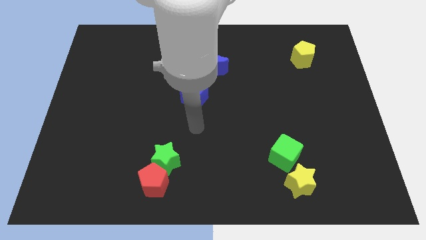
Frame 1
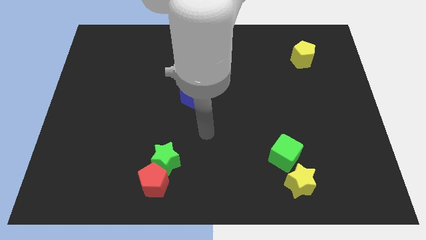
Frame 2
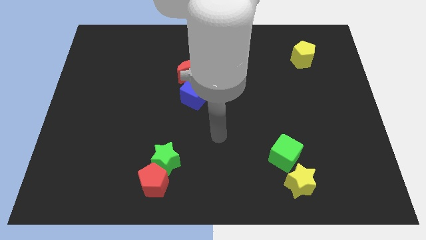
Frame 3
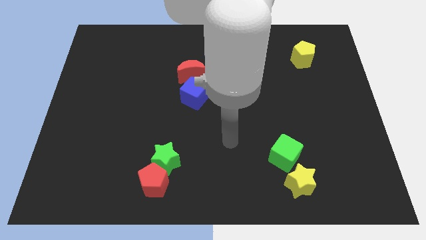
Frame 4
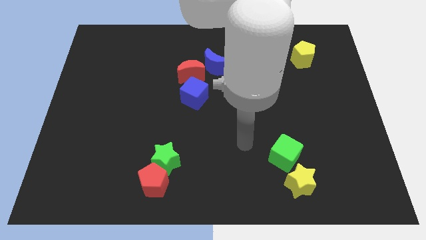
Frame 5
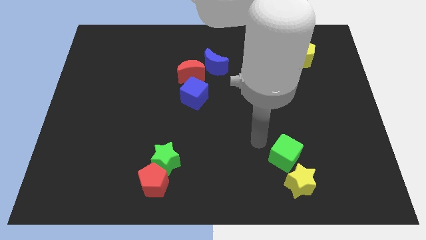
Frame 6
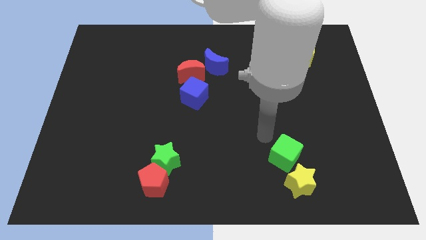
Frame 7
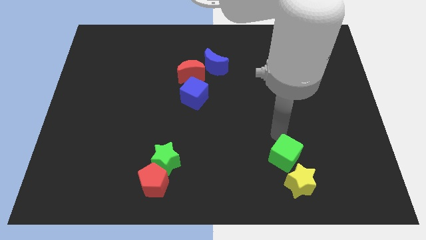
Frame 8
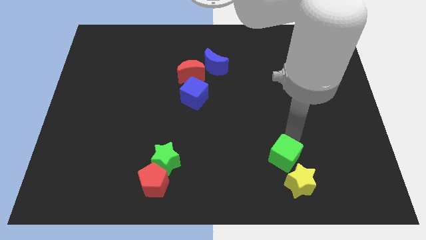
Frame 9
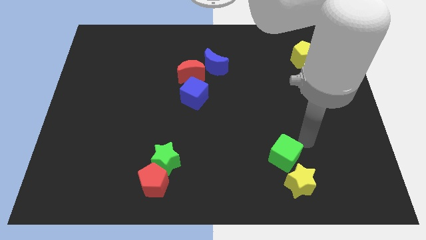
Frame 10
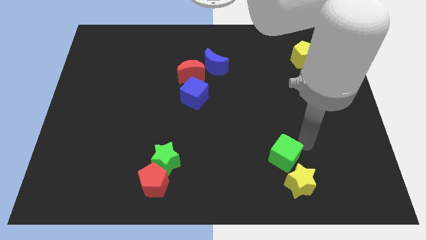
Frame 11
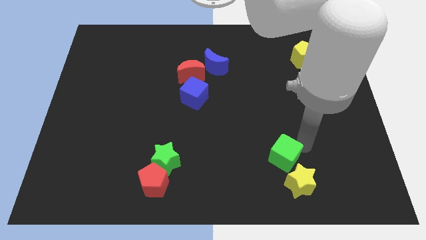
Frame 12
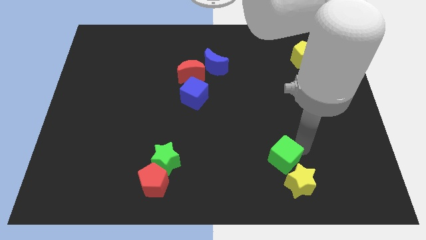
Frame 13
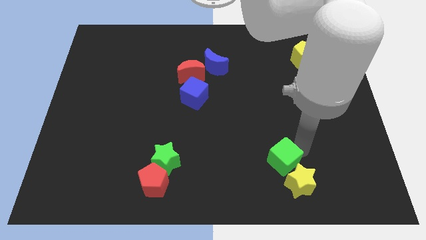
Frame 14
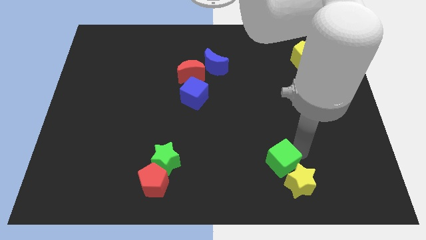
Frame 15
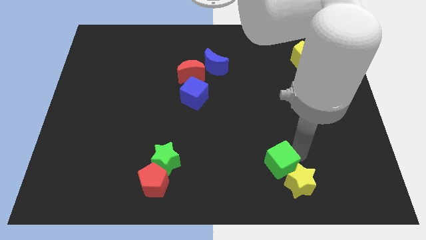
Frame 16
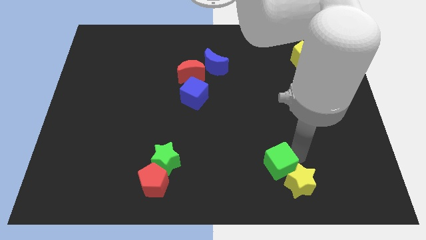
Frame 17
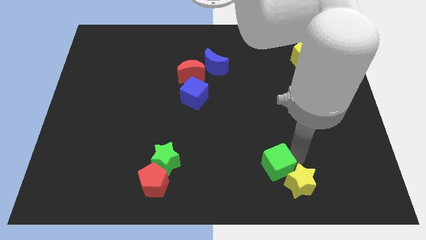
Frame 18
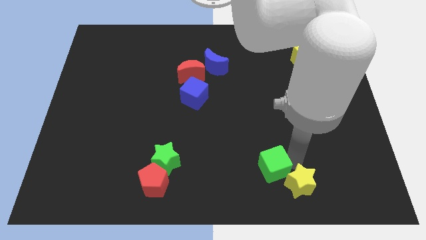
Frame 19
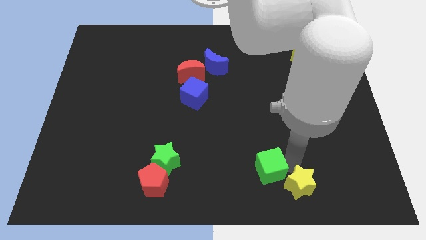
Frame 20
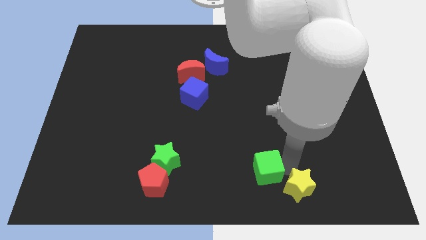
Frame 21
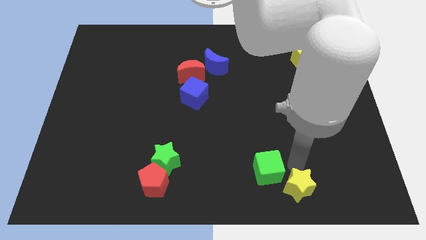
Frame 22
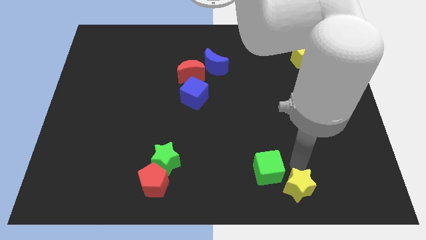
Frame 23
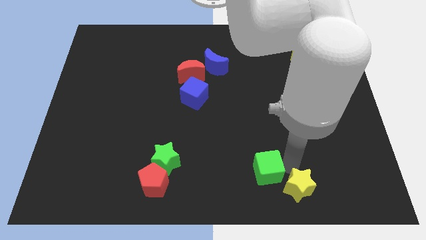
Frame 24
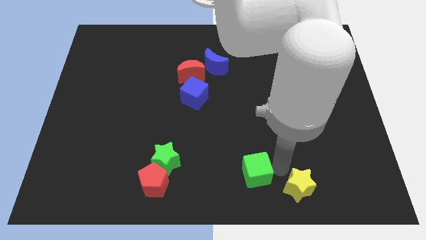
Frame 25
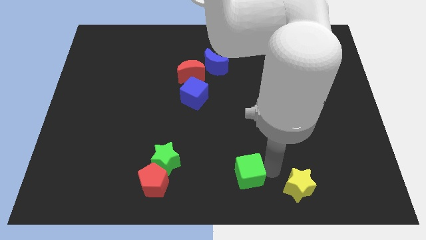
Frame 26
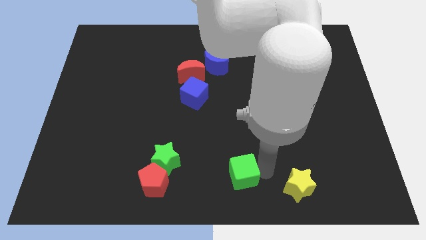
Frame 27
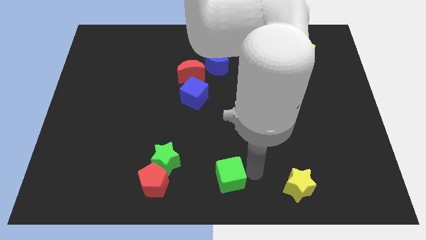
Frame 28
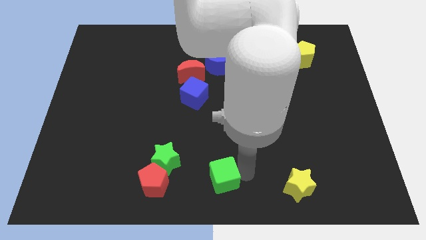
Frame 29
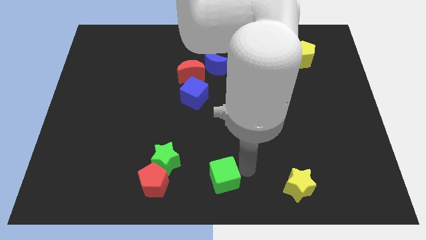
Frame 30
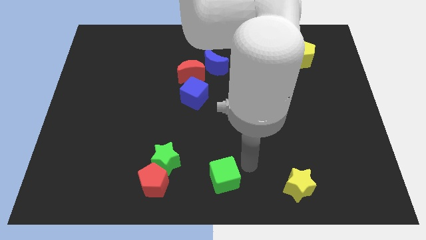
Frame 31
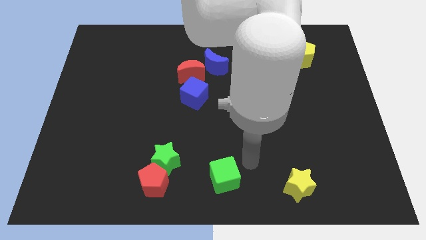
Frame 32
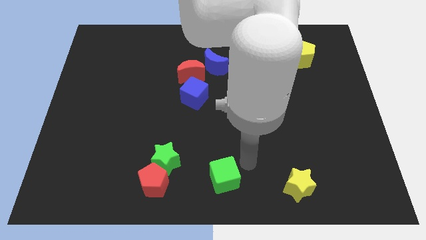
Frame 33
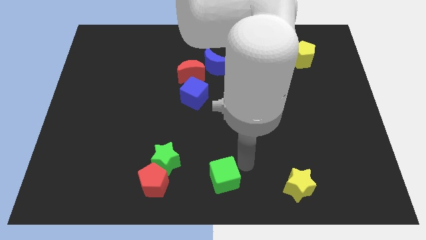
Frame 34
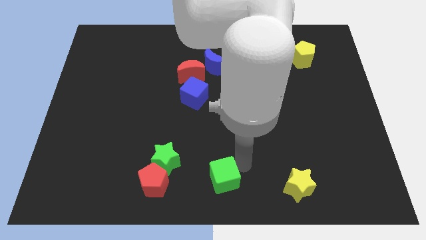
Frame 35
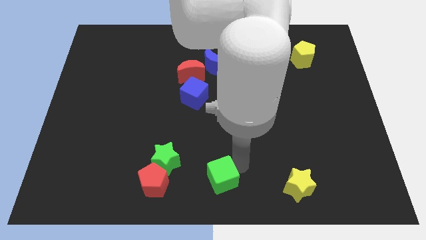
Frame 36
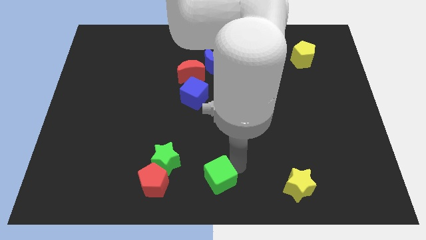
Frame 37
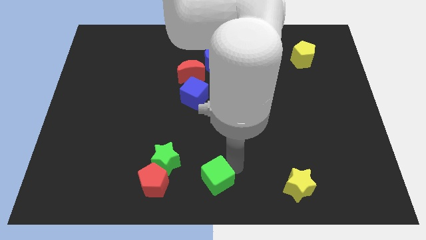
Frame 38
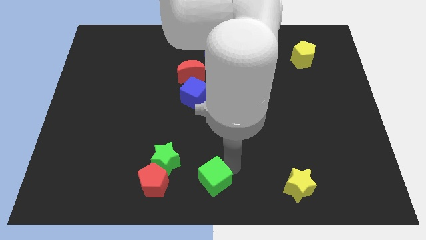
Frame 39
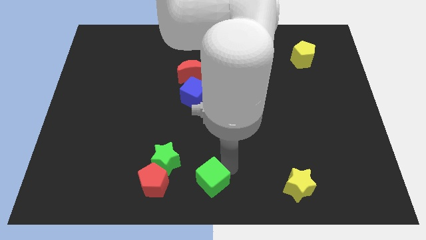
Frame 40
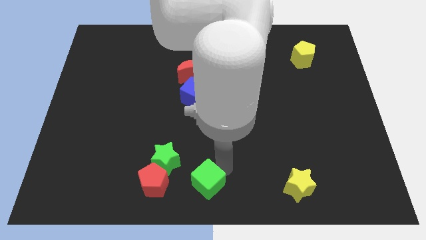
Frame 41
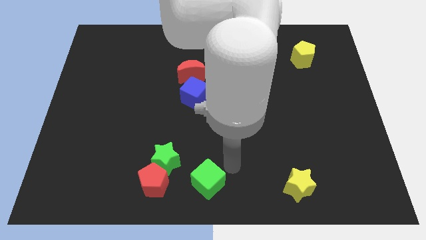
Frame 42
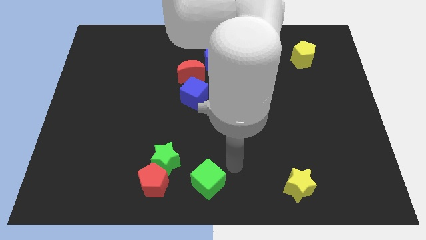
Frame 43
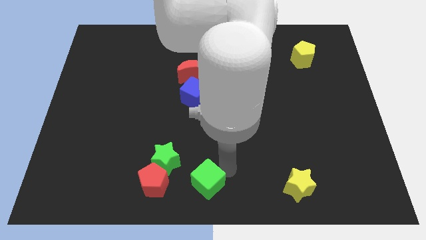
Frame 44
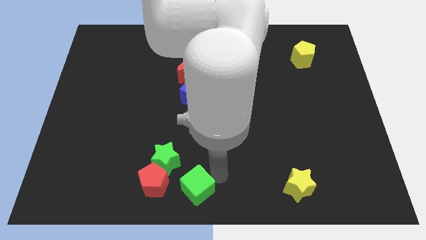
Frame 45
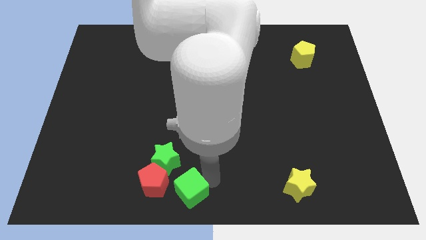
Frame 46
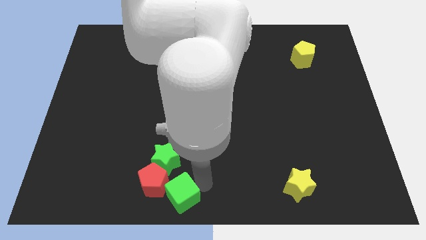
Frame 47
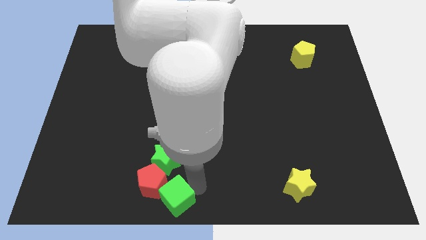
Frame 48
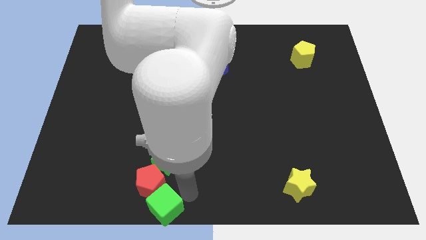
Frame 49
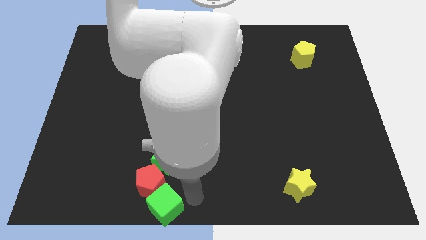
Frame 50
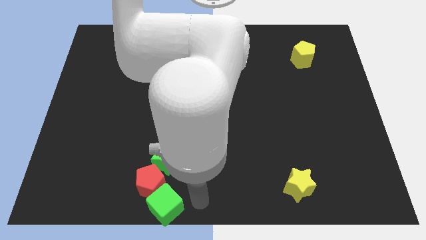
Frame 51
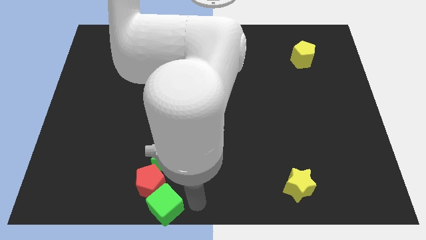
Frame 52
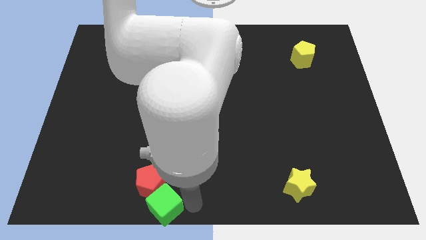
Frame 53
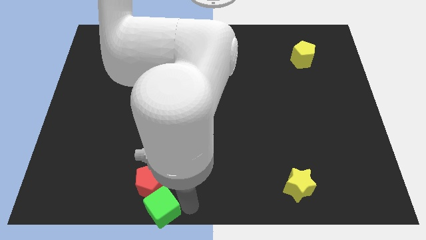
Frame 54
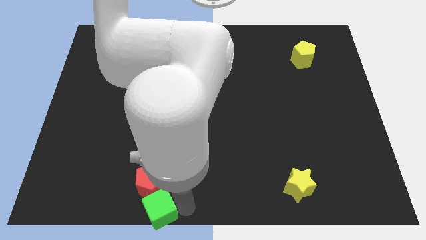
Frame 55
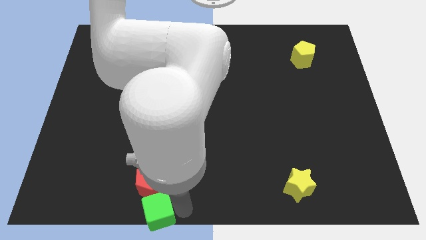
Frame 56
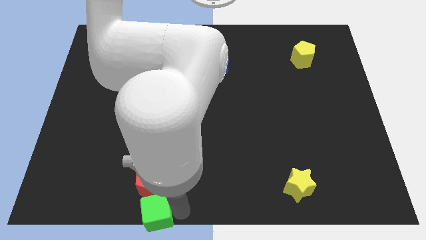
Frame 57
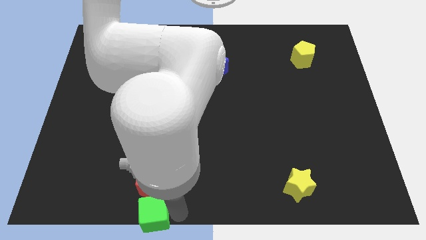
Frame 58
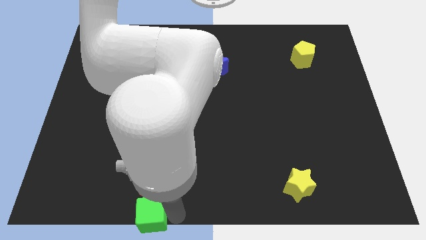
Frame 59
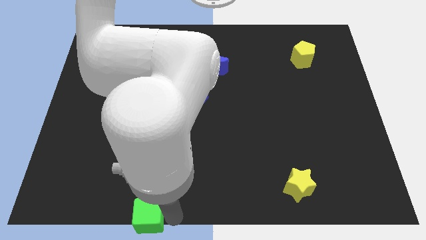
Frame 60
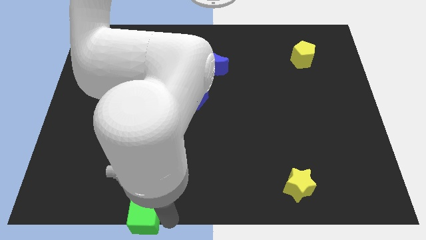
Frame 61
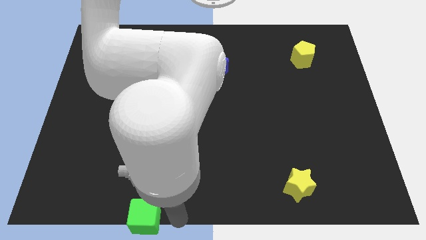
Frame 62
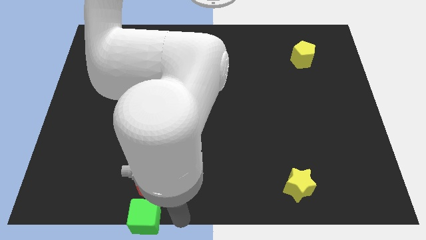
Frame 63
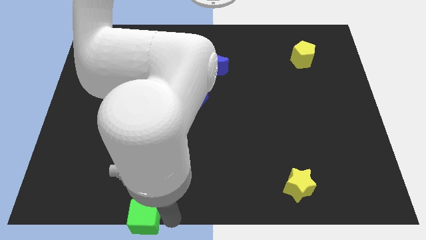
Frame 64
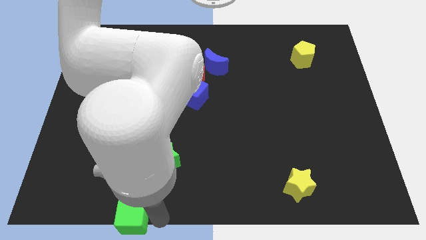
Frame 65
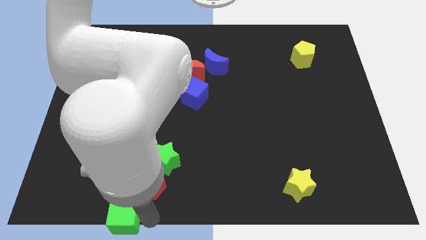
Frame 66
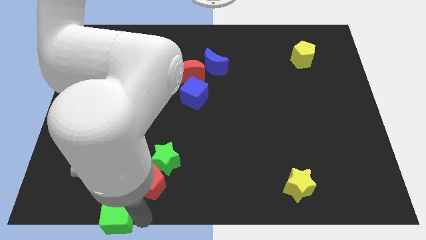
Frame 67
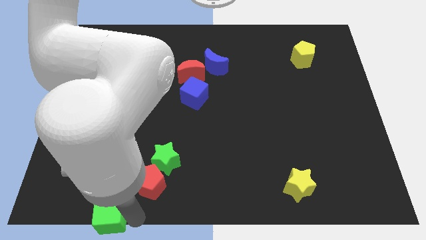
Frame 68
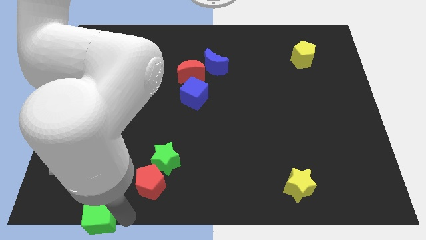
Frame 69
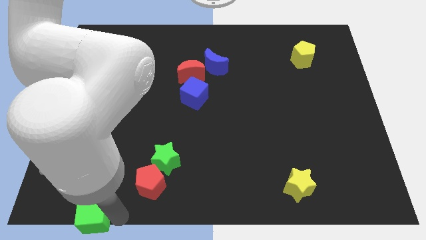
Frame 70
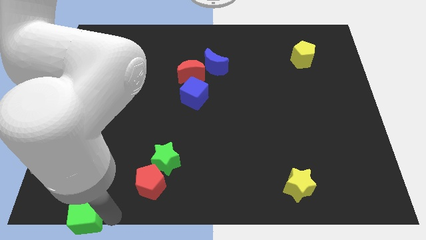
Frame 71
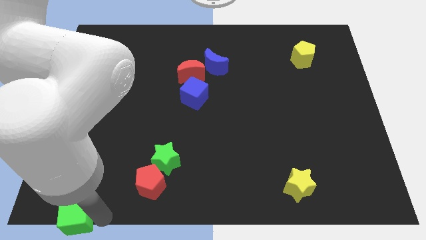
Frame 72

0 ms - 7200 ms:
slide the green cube to the bottom left of the board
